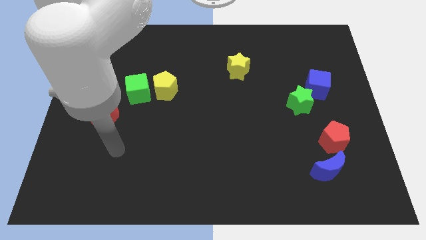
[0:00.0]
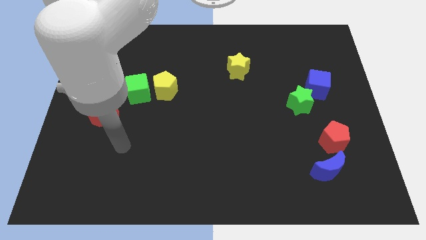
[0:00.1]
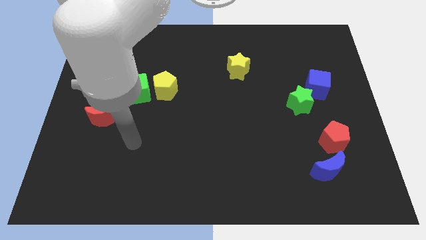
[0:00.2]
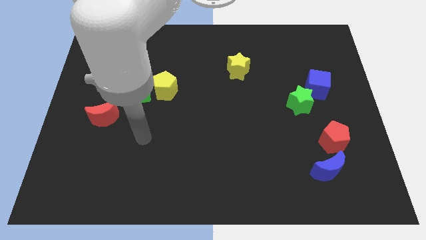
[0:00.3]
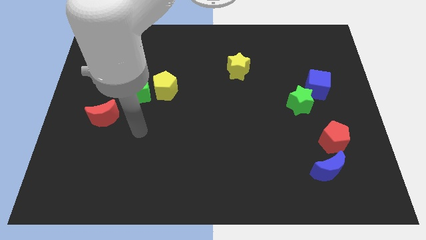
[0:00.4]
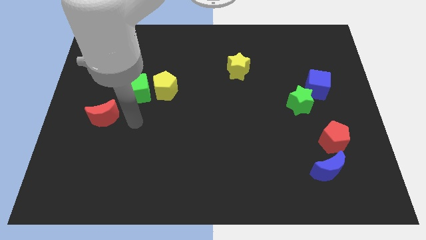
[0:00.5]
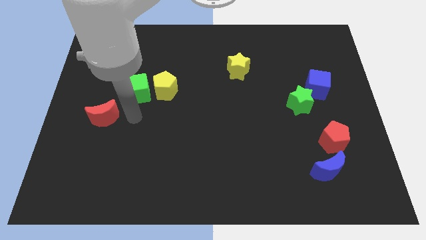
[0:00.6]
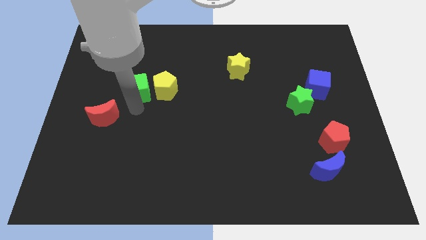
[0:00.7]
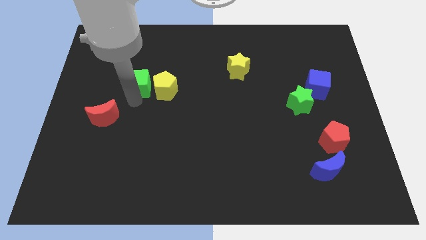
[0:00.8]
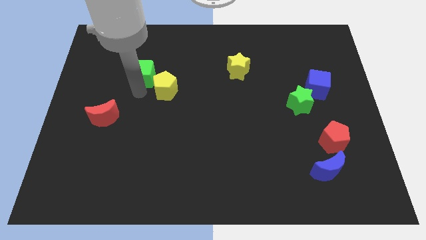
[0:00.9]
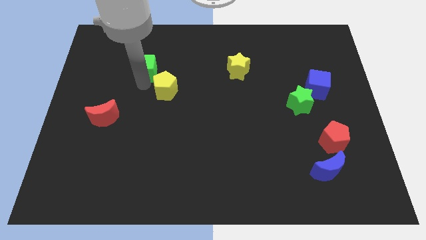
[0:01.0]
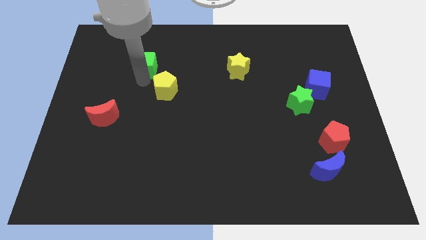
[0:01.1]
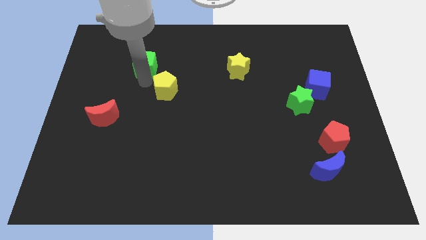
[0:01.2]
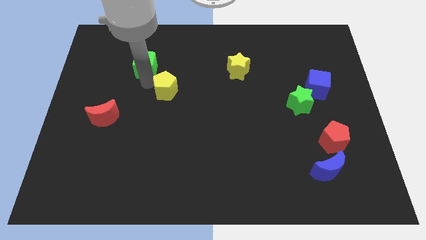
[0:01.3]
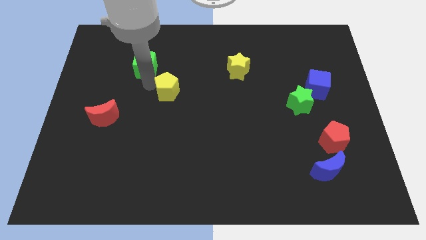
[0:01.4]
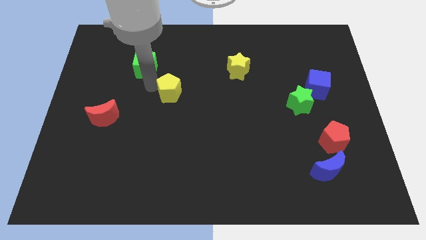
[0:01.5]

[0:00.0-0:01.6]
separate the yellow pentagon from the green cube

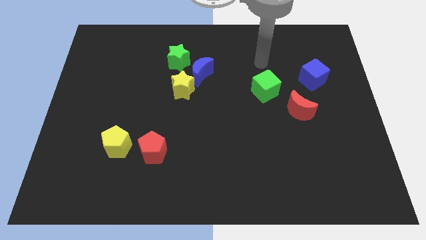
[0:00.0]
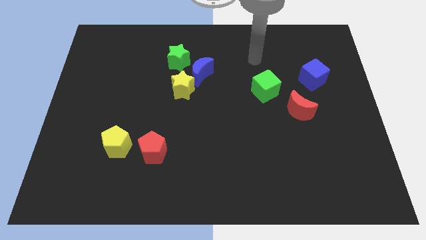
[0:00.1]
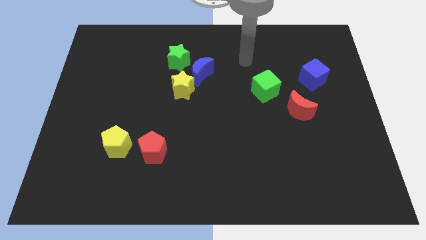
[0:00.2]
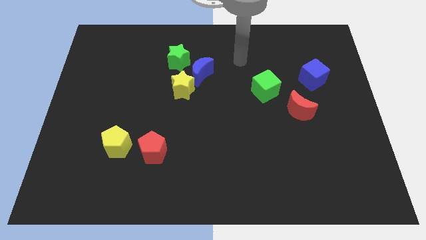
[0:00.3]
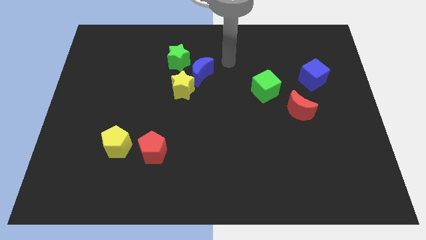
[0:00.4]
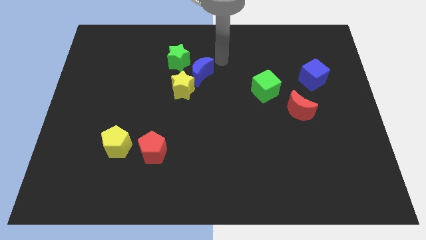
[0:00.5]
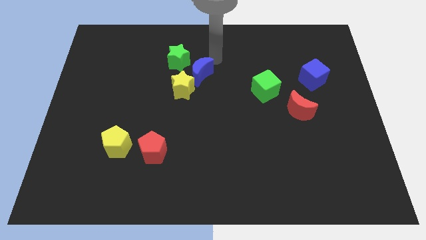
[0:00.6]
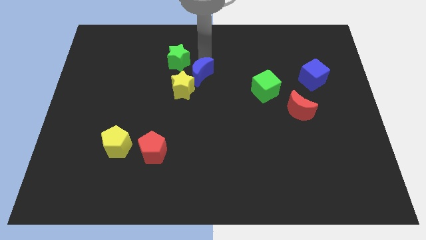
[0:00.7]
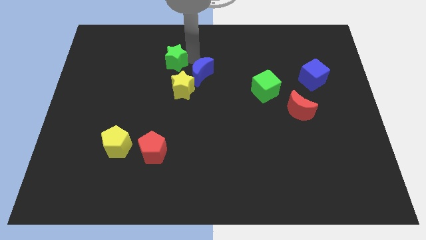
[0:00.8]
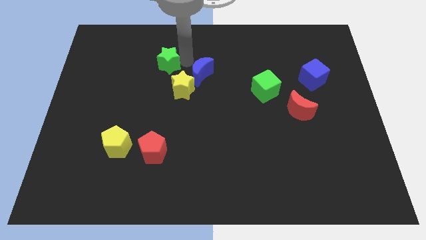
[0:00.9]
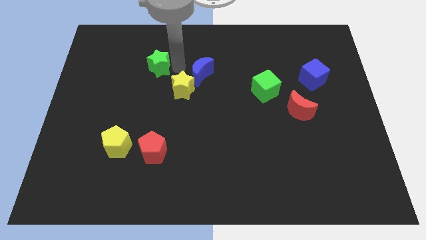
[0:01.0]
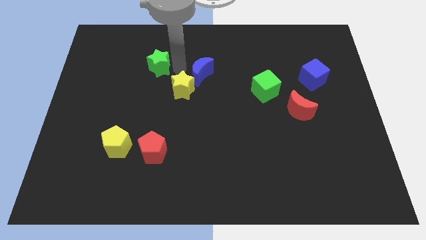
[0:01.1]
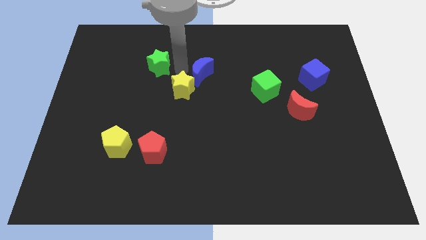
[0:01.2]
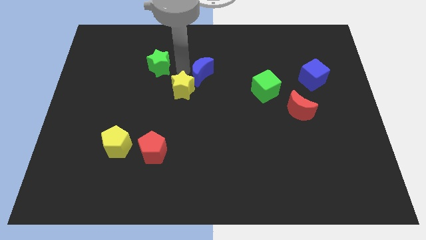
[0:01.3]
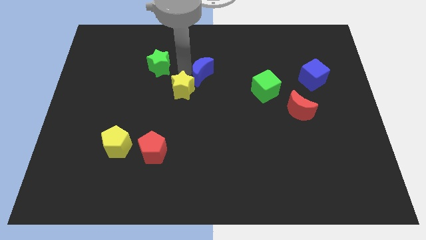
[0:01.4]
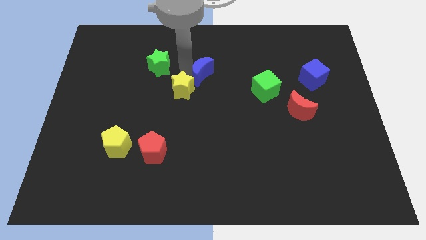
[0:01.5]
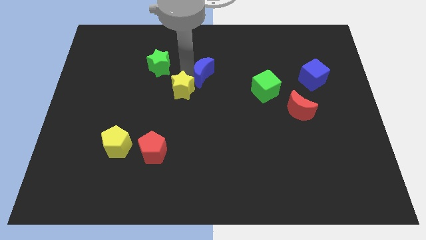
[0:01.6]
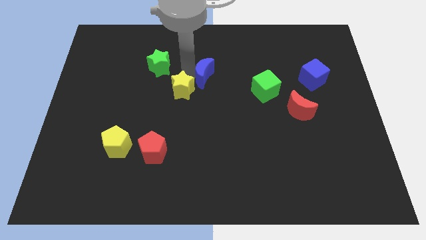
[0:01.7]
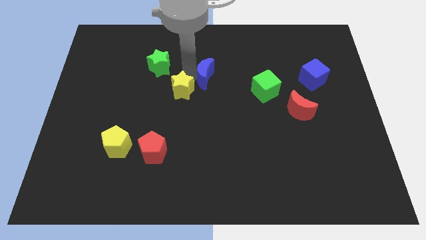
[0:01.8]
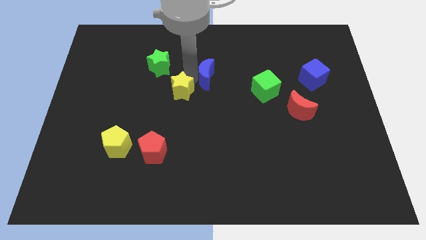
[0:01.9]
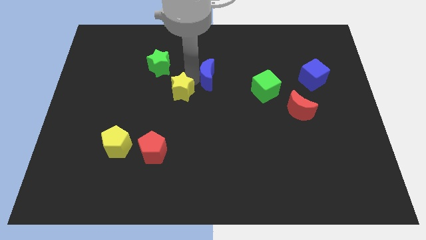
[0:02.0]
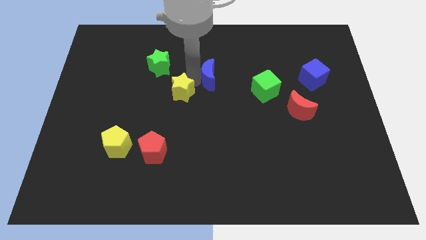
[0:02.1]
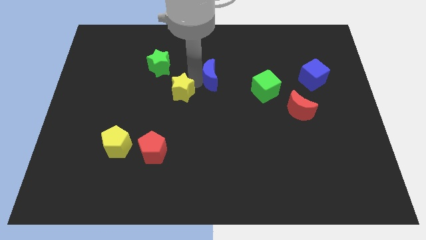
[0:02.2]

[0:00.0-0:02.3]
move the blue moon away from the yellow star and green star

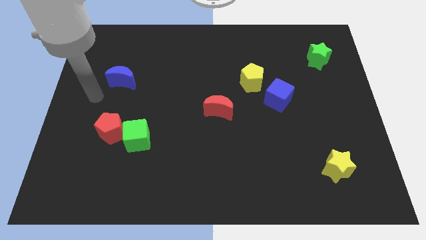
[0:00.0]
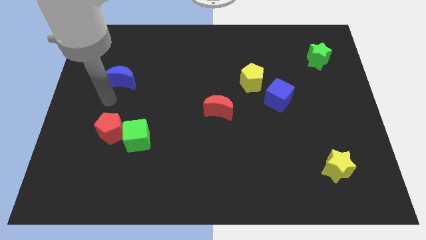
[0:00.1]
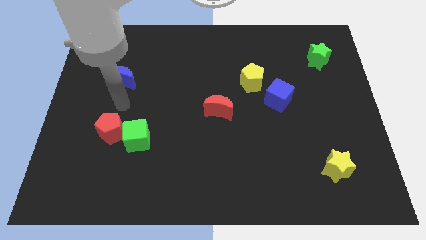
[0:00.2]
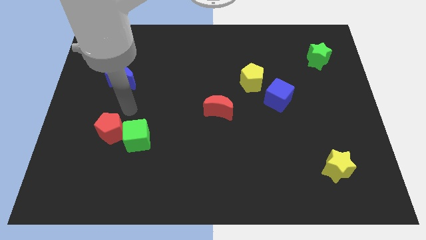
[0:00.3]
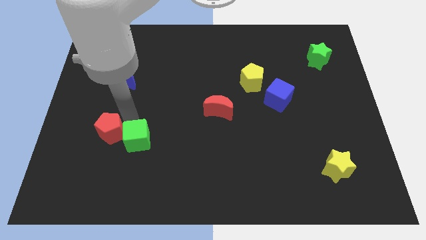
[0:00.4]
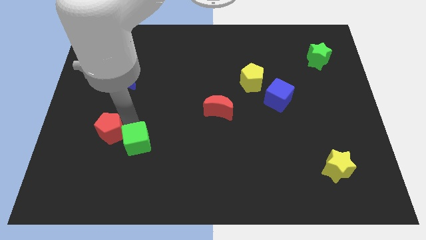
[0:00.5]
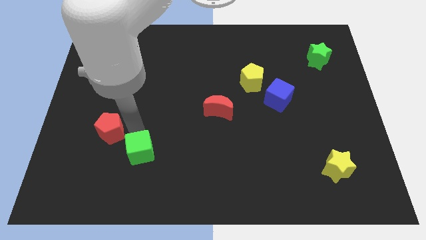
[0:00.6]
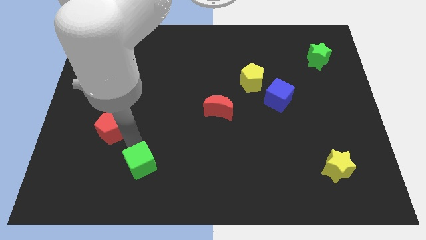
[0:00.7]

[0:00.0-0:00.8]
separate the red pentagon from the green cube

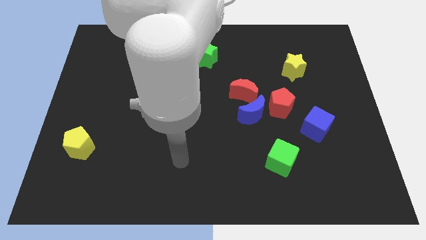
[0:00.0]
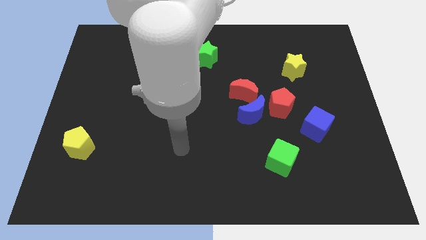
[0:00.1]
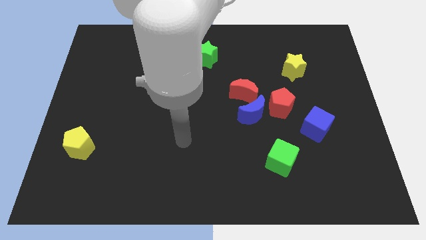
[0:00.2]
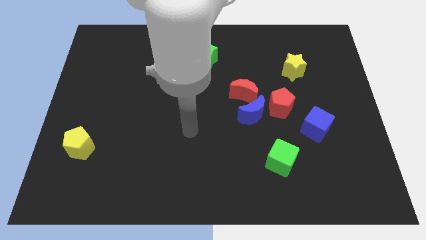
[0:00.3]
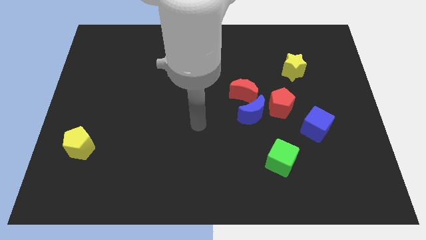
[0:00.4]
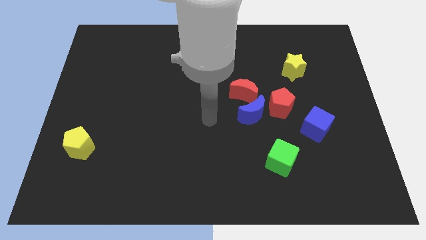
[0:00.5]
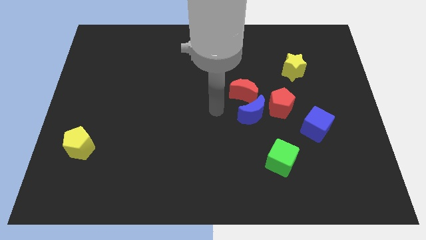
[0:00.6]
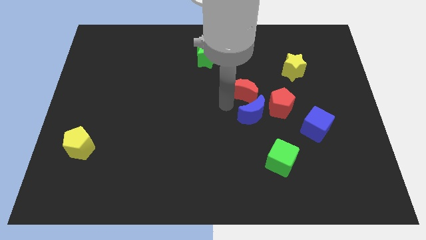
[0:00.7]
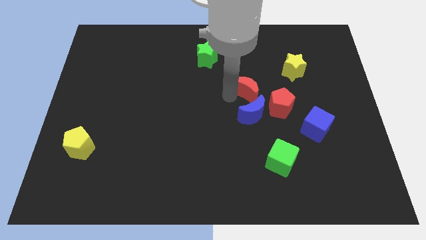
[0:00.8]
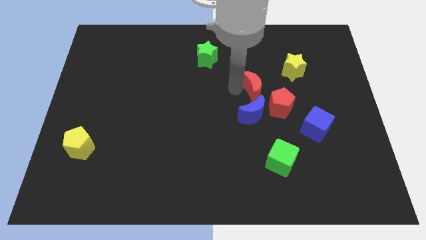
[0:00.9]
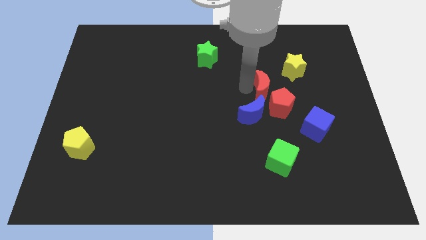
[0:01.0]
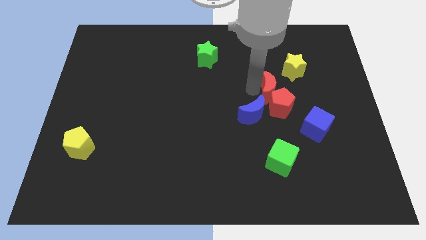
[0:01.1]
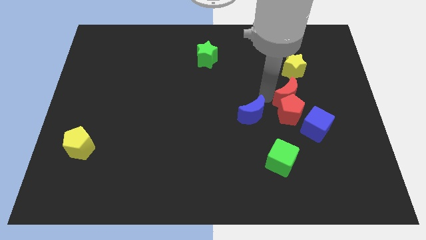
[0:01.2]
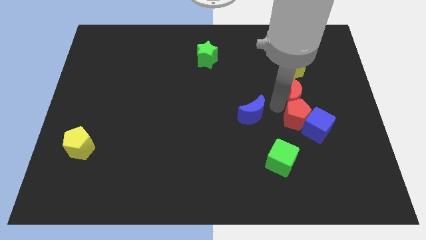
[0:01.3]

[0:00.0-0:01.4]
pull the blue moon apart from the red moon and red pentagon

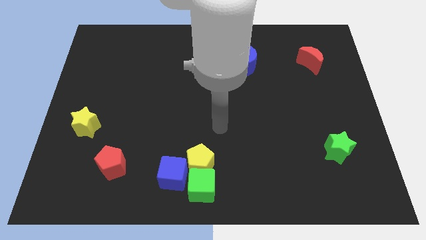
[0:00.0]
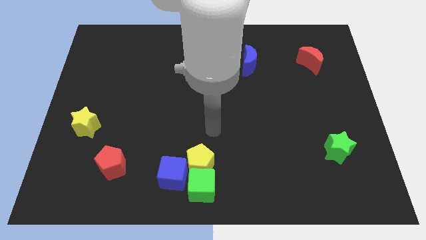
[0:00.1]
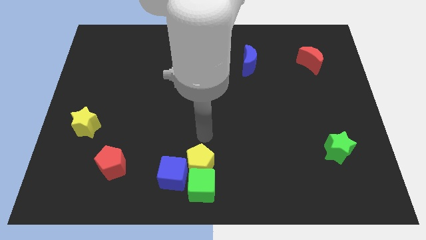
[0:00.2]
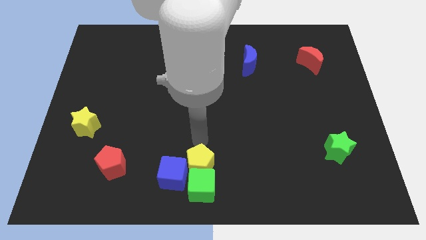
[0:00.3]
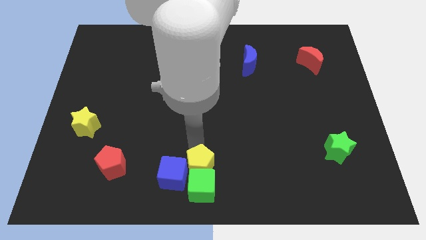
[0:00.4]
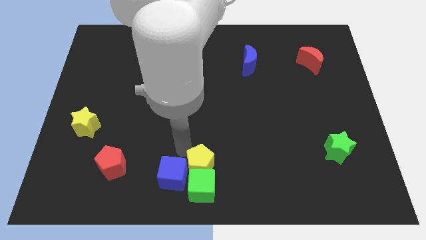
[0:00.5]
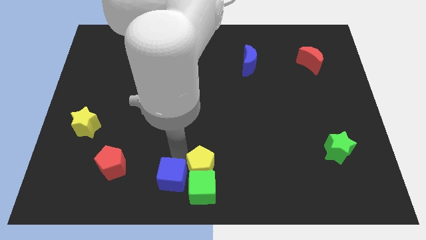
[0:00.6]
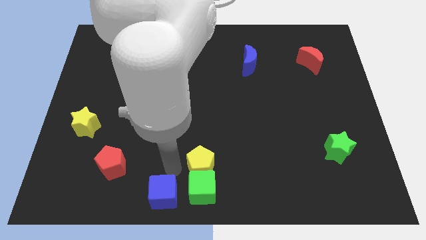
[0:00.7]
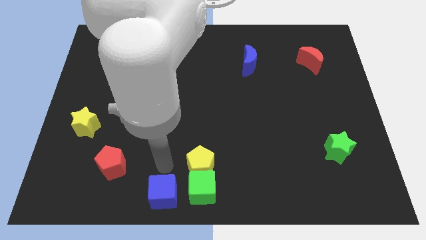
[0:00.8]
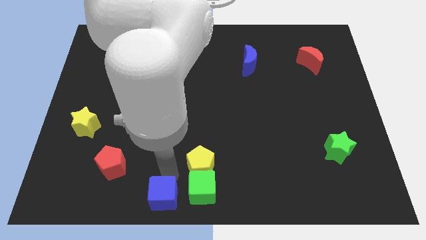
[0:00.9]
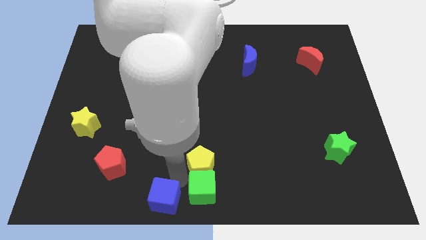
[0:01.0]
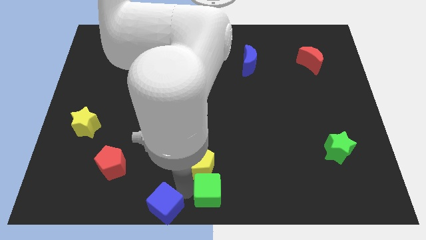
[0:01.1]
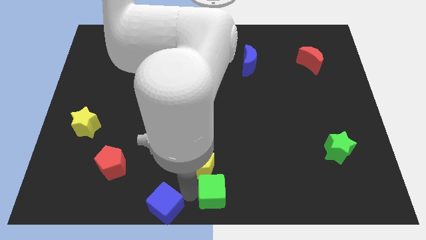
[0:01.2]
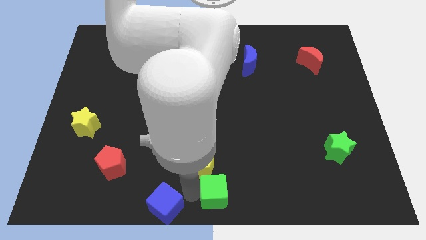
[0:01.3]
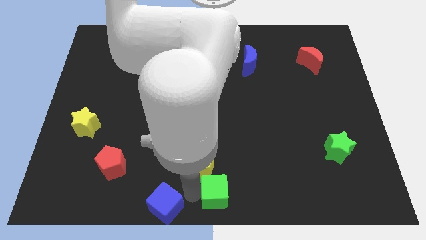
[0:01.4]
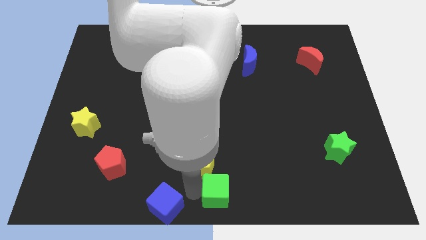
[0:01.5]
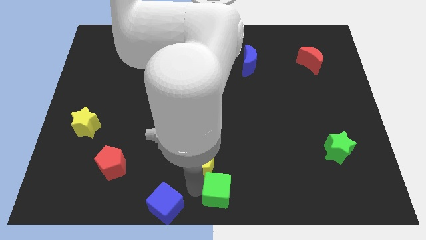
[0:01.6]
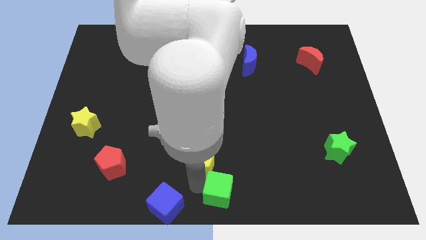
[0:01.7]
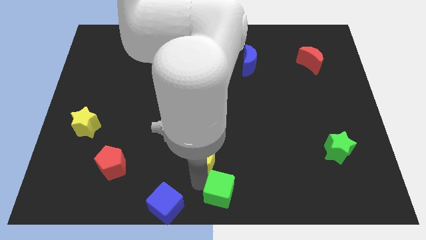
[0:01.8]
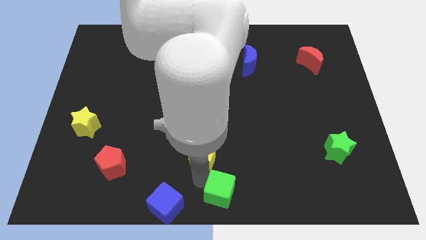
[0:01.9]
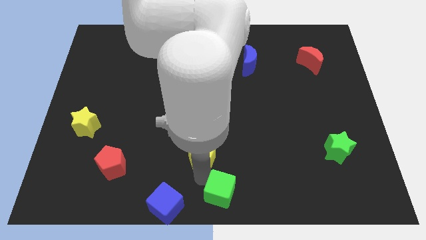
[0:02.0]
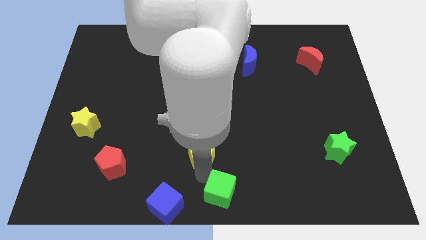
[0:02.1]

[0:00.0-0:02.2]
move the yellow pentagon away from the green cube and blue cube

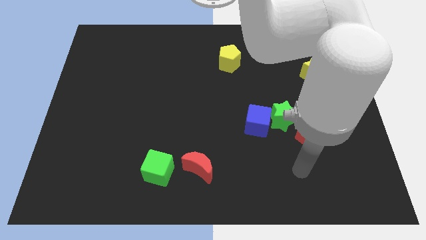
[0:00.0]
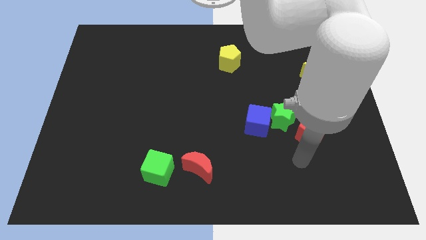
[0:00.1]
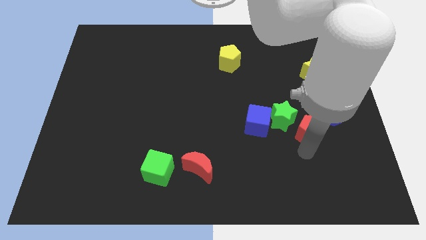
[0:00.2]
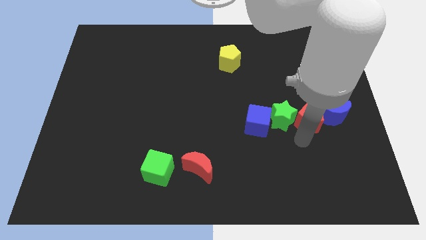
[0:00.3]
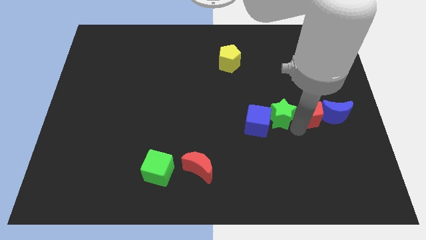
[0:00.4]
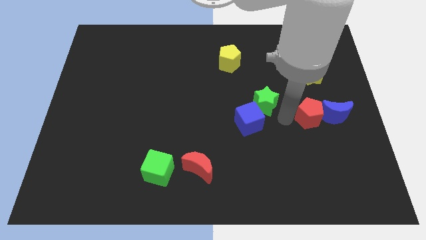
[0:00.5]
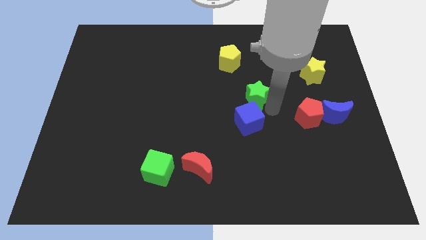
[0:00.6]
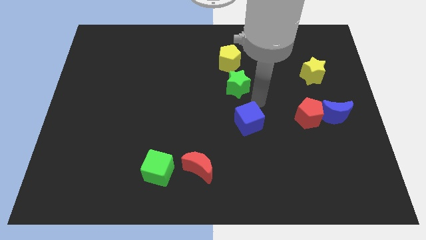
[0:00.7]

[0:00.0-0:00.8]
separate the blue cube from the green star

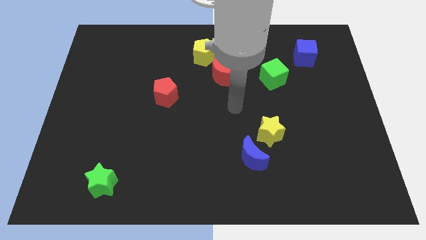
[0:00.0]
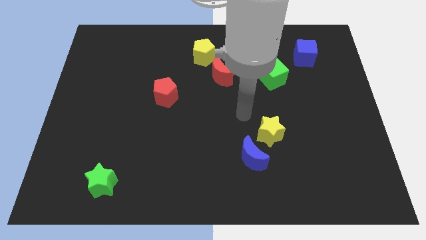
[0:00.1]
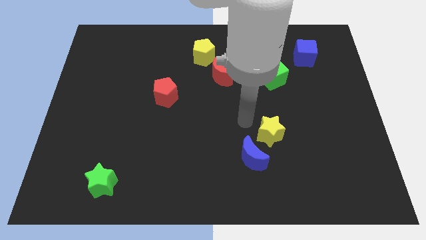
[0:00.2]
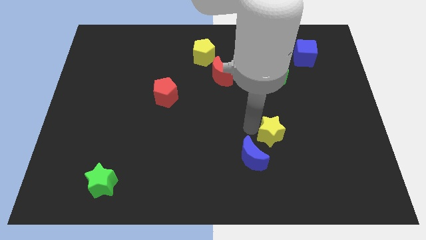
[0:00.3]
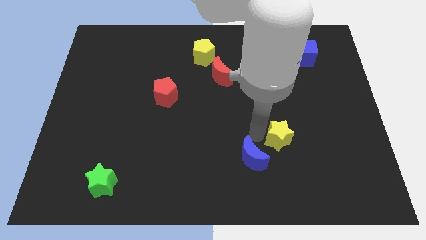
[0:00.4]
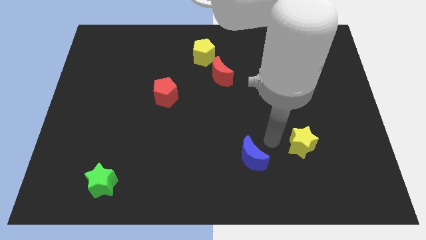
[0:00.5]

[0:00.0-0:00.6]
move the blue moon away from the yellow star
